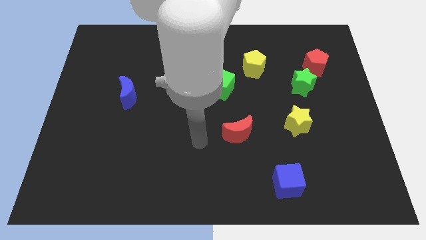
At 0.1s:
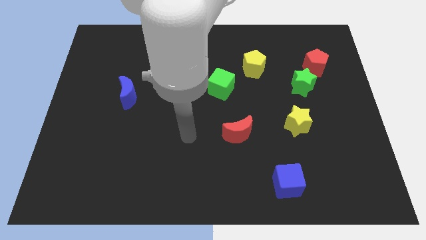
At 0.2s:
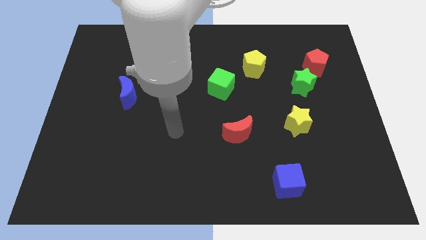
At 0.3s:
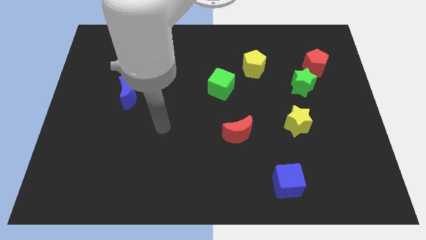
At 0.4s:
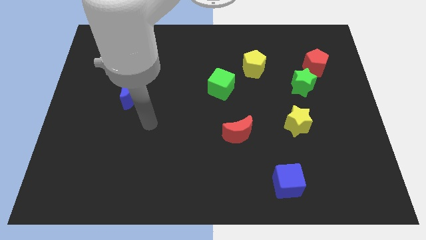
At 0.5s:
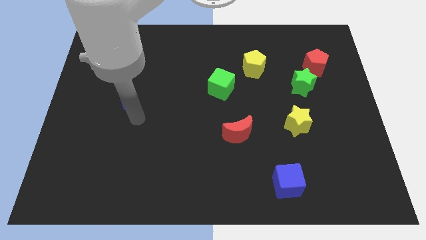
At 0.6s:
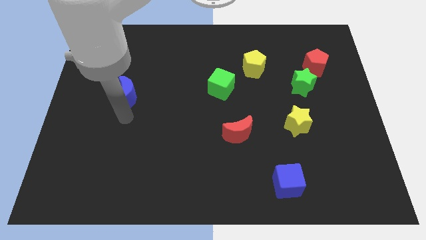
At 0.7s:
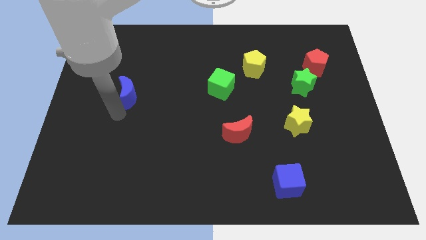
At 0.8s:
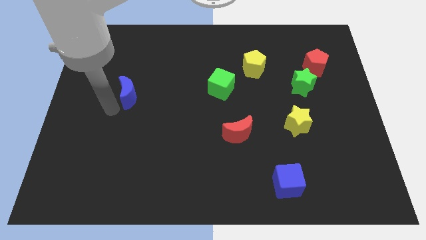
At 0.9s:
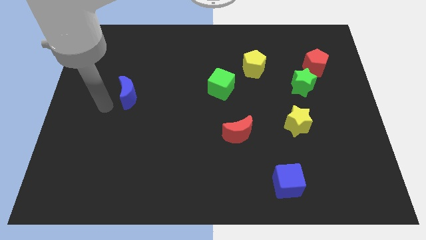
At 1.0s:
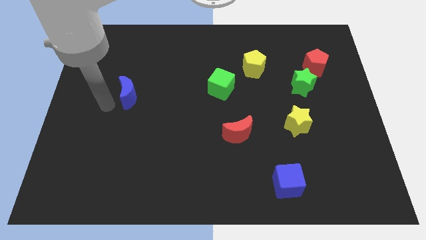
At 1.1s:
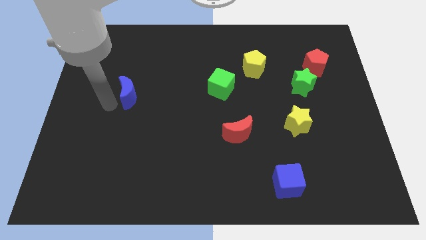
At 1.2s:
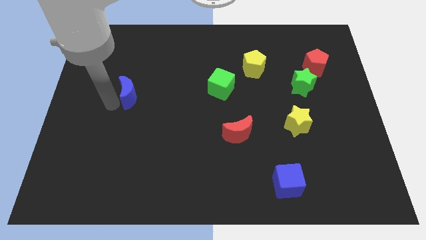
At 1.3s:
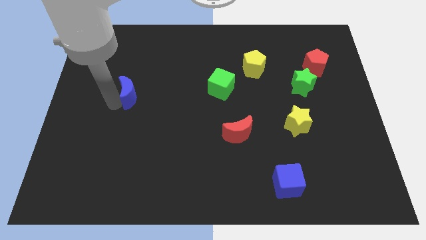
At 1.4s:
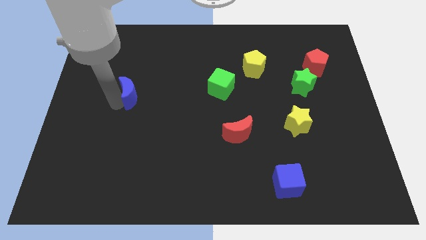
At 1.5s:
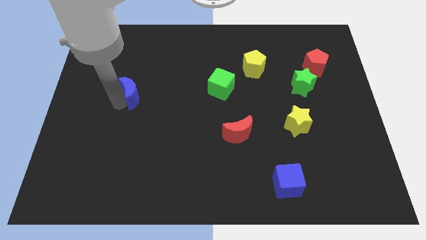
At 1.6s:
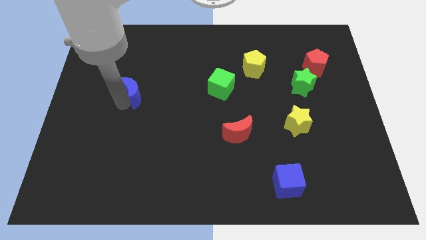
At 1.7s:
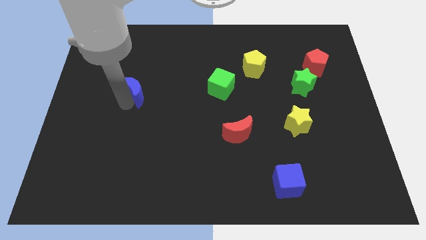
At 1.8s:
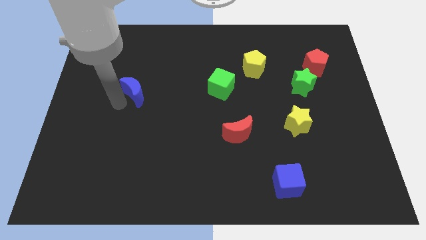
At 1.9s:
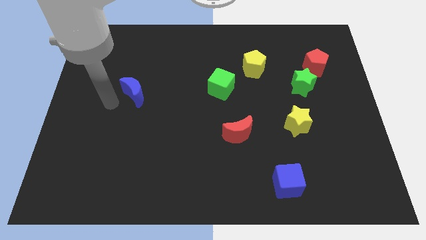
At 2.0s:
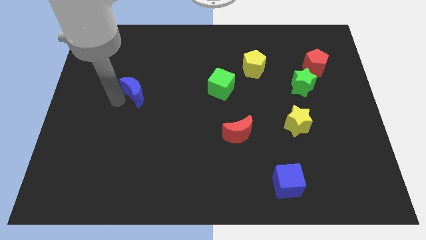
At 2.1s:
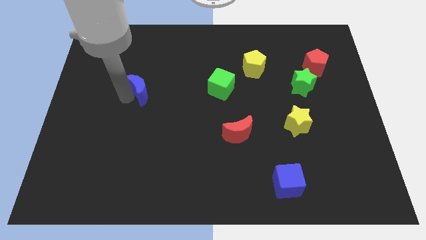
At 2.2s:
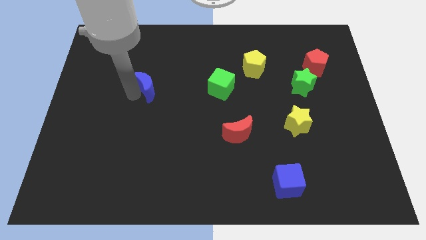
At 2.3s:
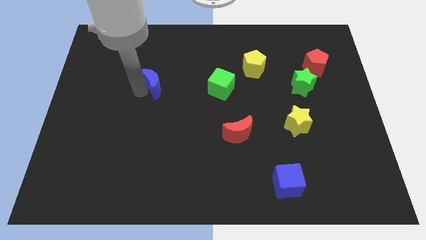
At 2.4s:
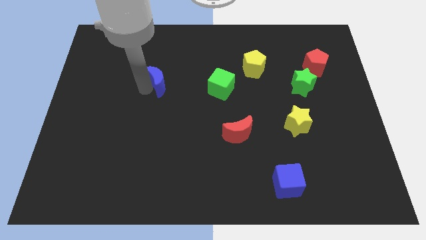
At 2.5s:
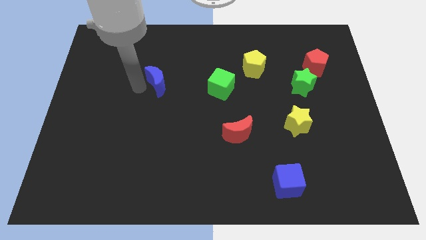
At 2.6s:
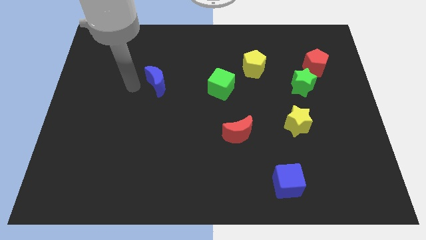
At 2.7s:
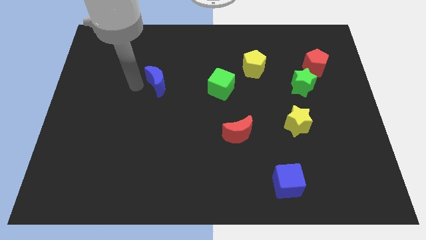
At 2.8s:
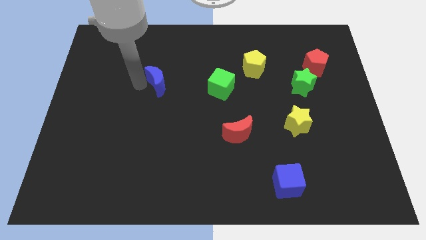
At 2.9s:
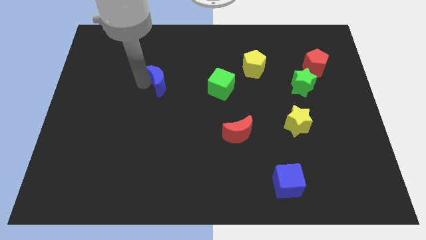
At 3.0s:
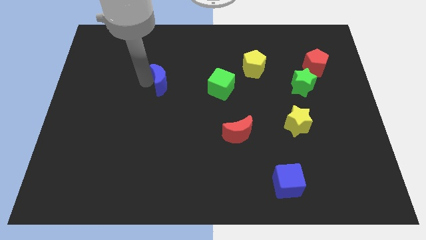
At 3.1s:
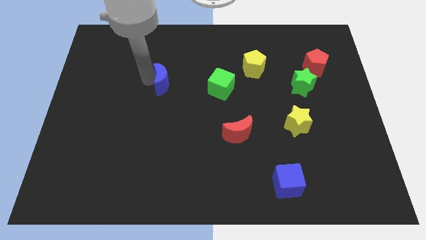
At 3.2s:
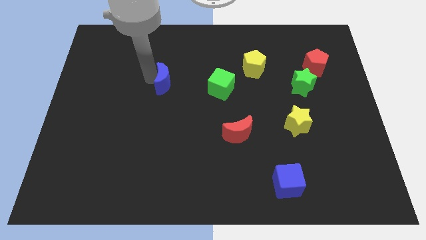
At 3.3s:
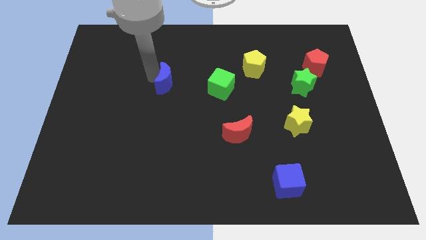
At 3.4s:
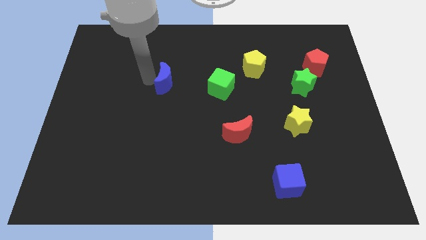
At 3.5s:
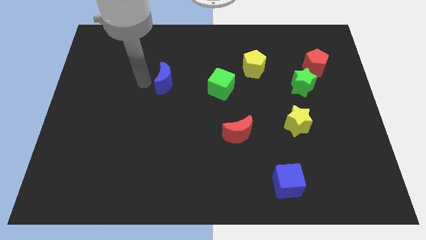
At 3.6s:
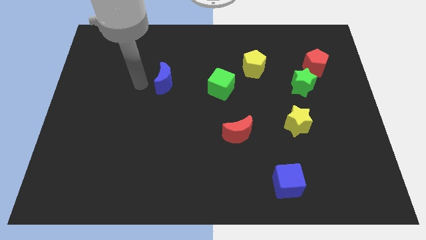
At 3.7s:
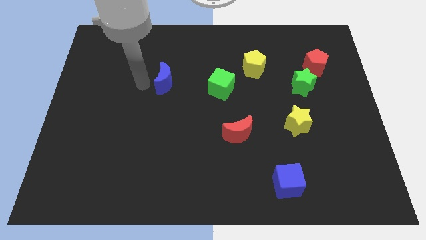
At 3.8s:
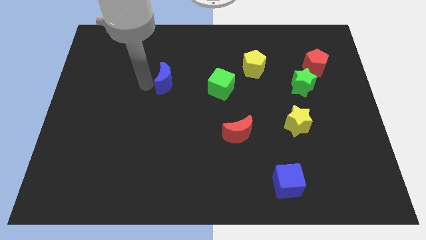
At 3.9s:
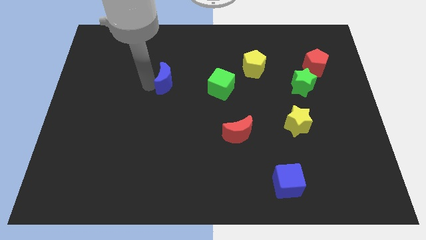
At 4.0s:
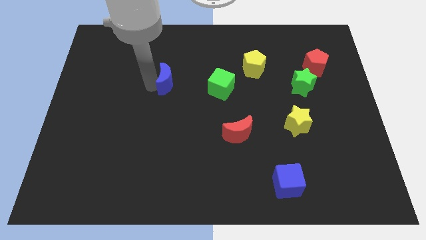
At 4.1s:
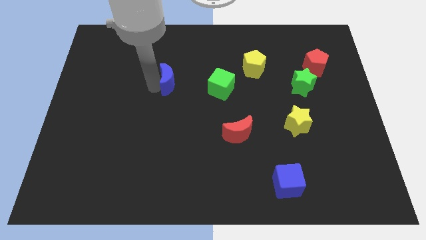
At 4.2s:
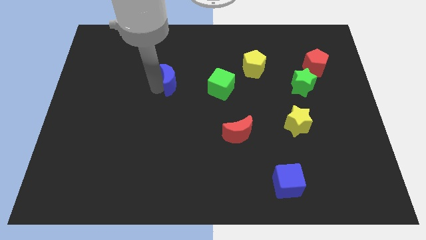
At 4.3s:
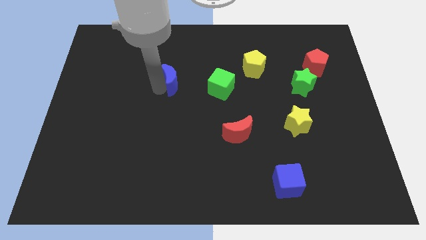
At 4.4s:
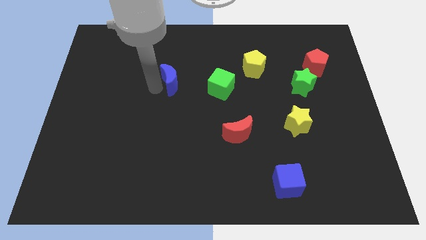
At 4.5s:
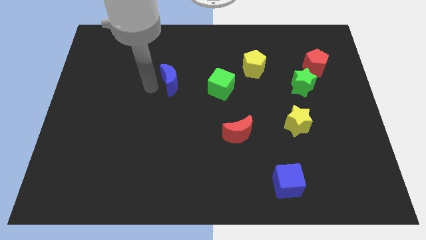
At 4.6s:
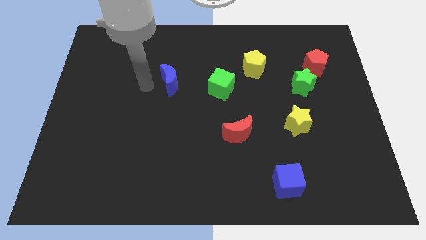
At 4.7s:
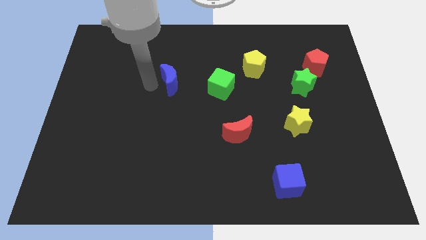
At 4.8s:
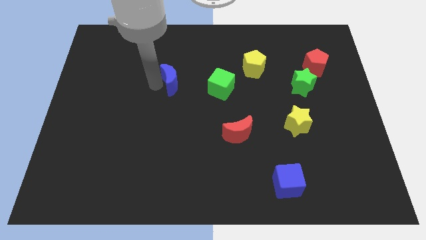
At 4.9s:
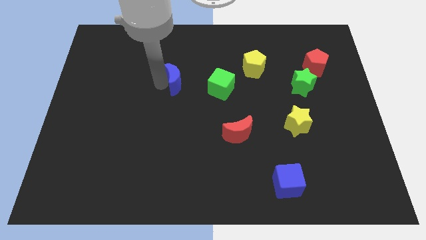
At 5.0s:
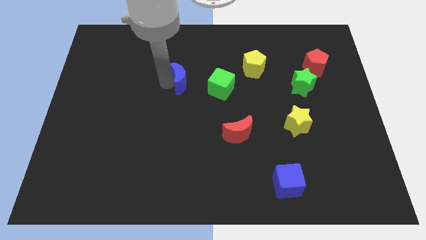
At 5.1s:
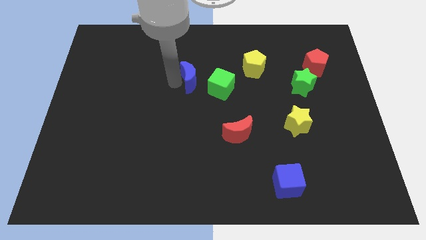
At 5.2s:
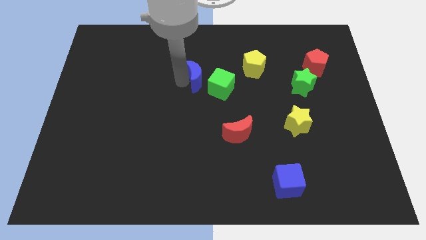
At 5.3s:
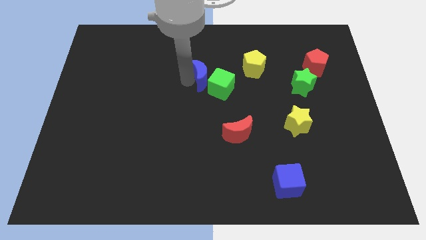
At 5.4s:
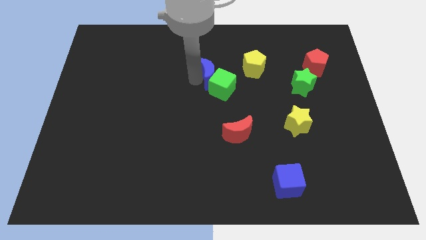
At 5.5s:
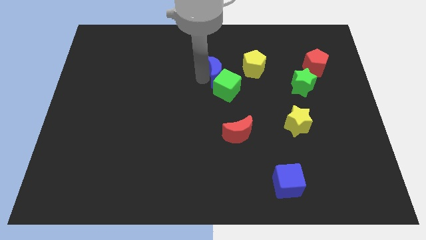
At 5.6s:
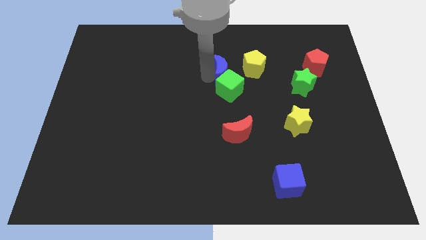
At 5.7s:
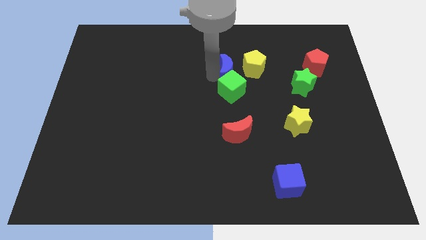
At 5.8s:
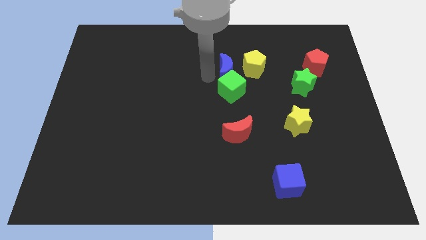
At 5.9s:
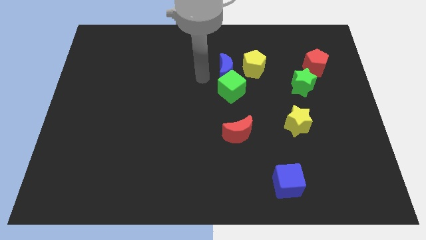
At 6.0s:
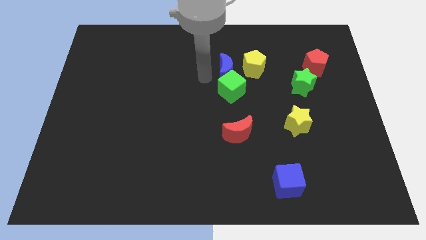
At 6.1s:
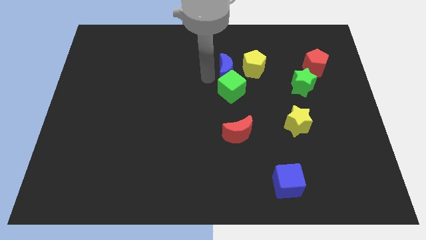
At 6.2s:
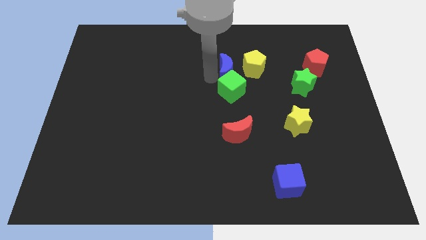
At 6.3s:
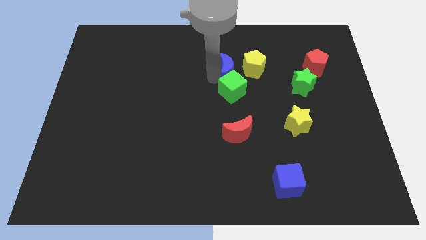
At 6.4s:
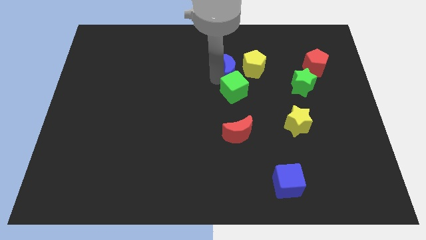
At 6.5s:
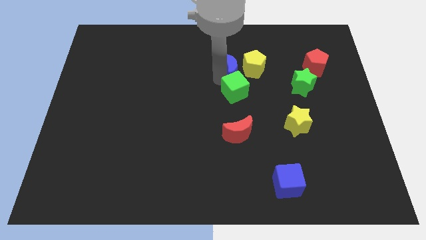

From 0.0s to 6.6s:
put the blue moon towards the yellow pentagon
